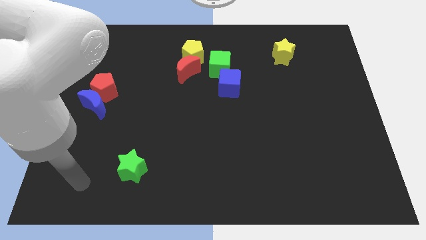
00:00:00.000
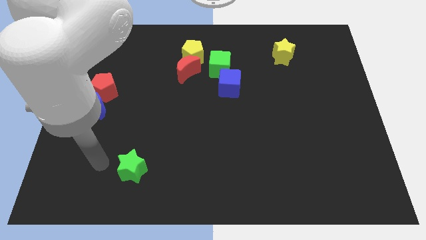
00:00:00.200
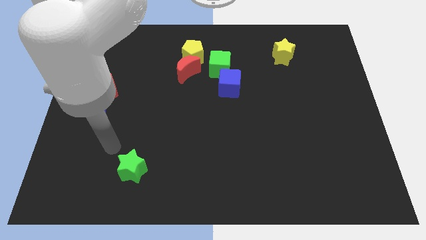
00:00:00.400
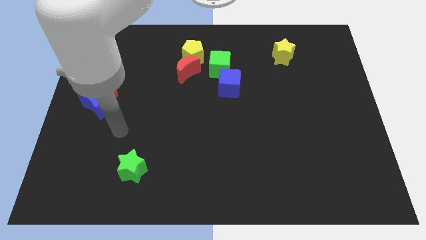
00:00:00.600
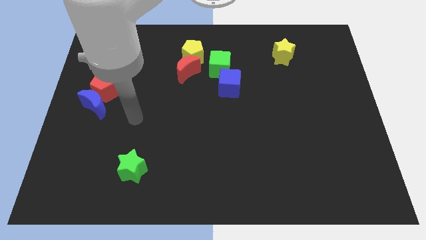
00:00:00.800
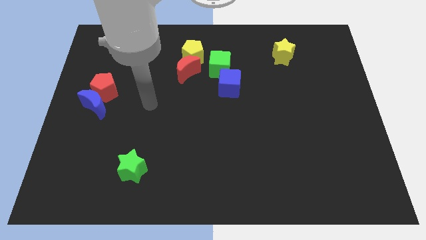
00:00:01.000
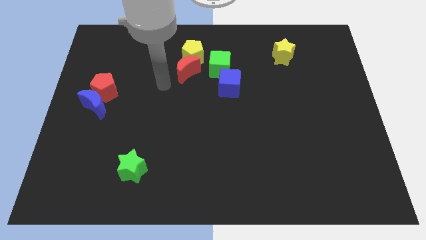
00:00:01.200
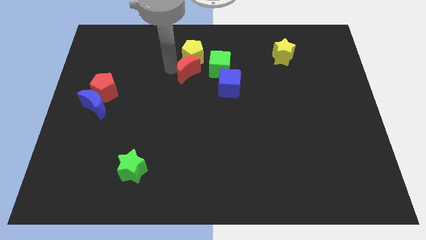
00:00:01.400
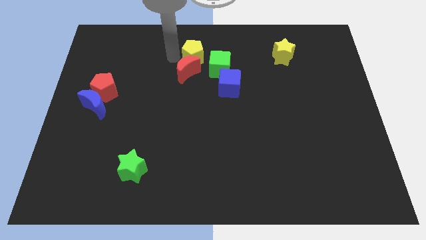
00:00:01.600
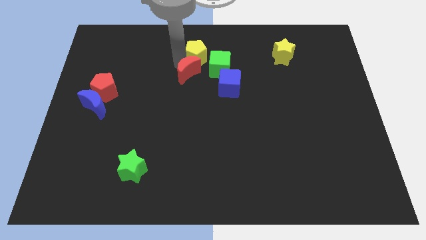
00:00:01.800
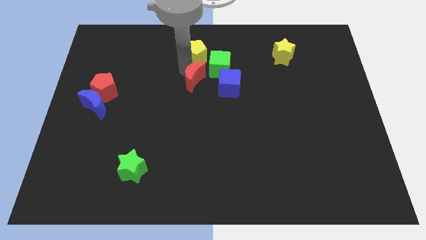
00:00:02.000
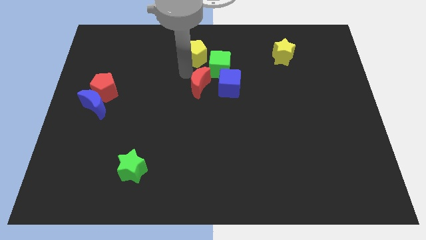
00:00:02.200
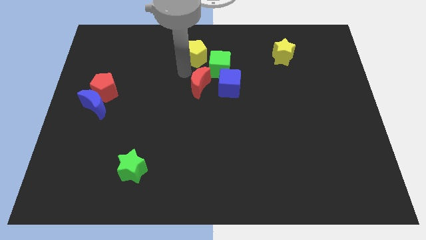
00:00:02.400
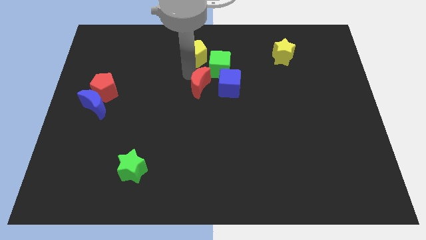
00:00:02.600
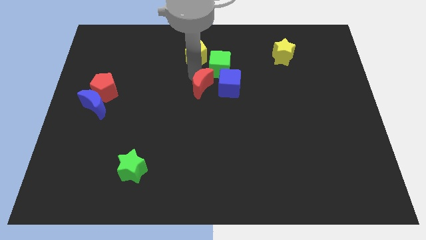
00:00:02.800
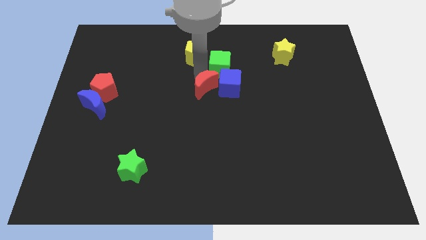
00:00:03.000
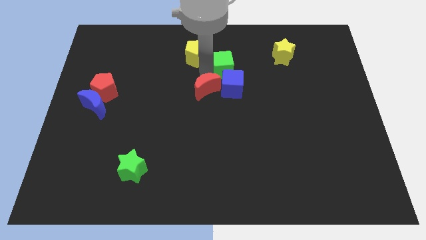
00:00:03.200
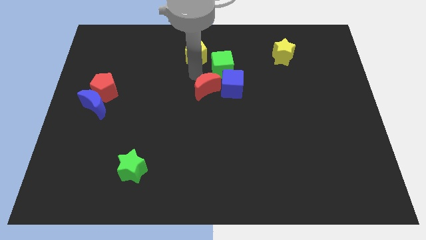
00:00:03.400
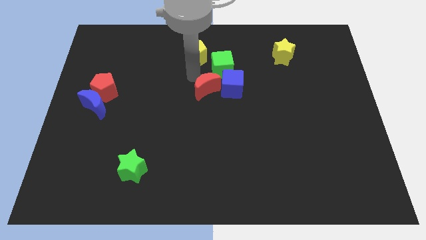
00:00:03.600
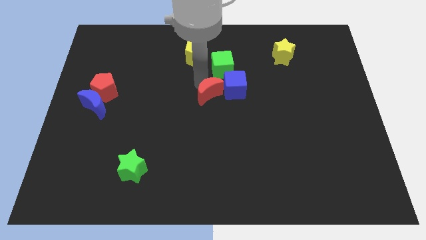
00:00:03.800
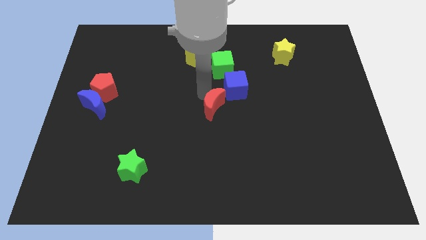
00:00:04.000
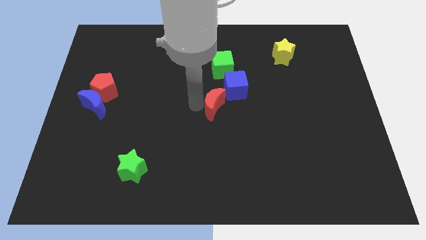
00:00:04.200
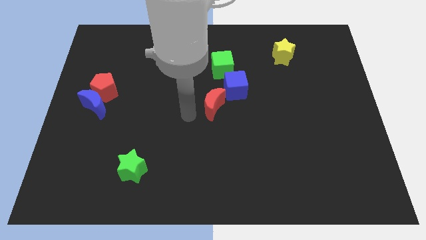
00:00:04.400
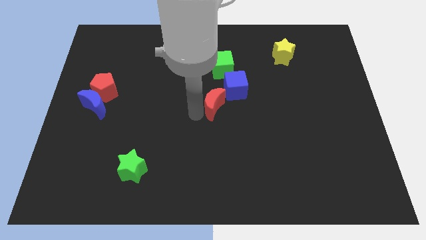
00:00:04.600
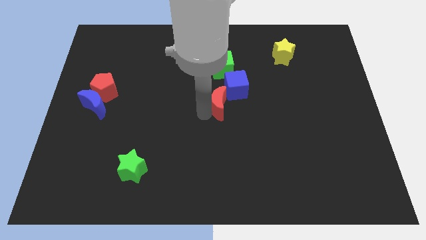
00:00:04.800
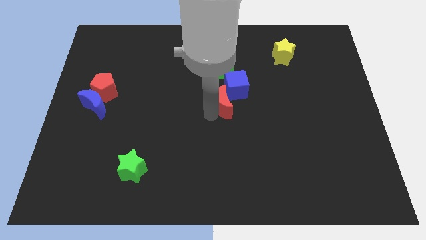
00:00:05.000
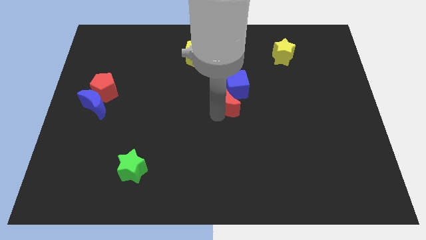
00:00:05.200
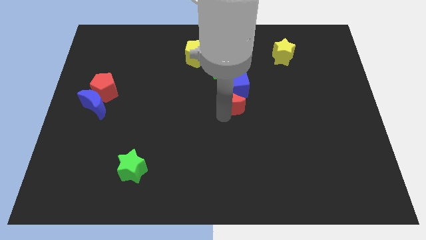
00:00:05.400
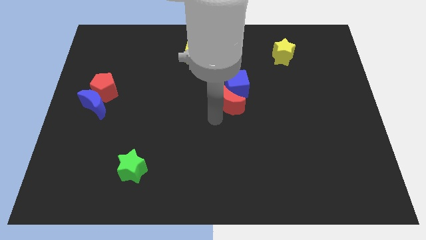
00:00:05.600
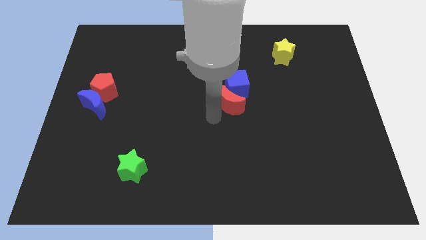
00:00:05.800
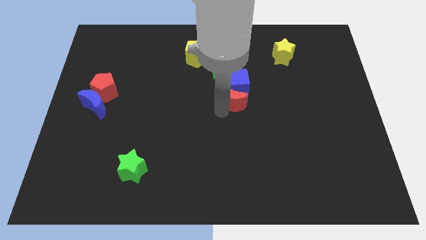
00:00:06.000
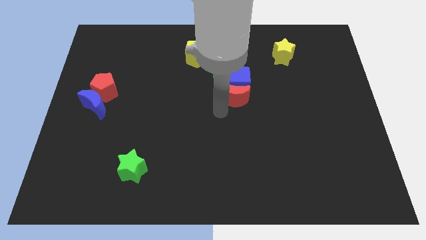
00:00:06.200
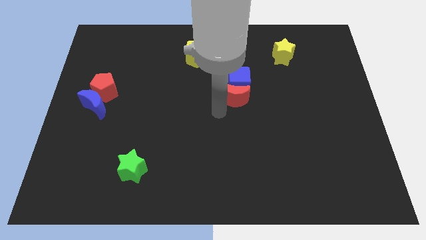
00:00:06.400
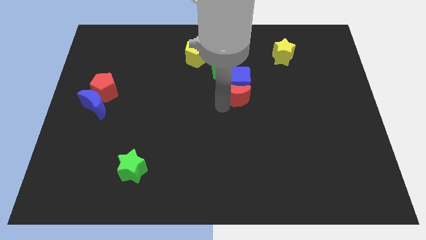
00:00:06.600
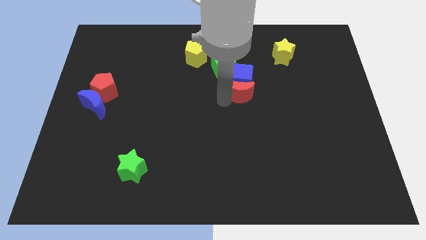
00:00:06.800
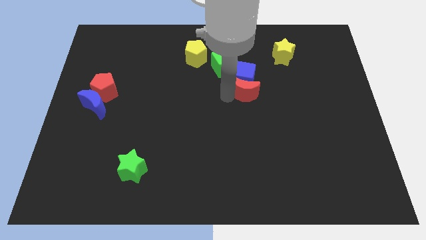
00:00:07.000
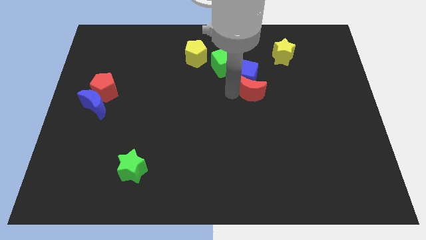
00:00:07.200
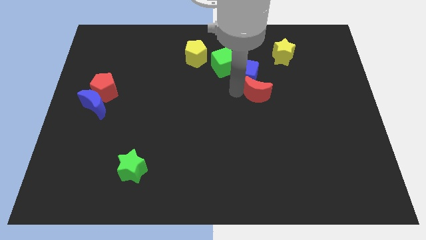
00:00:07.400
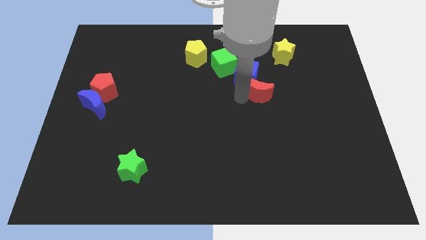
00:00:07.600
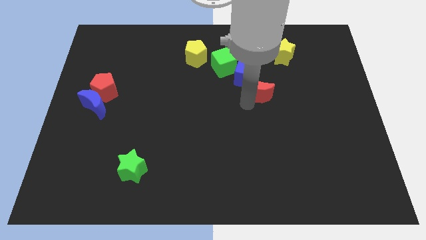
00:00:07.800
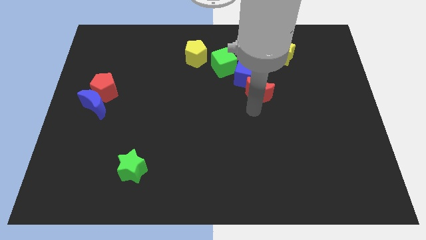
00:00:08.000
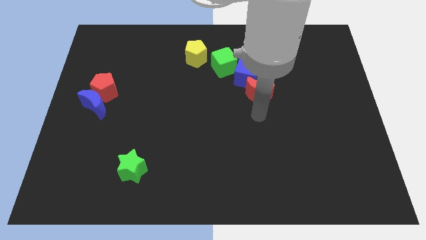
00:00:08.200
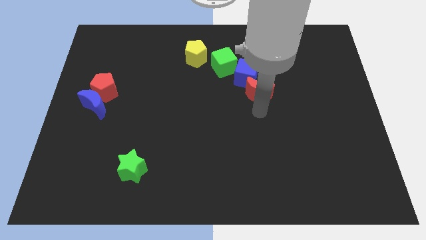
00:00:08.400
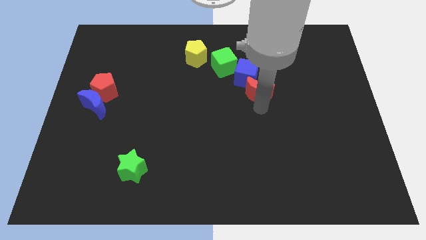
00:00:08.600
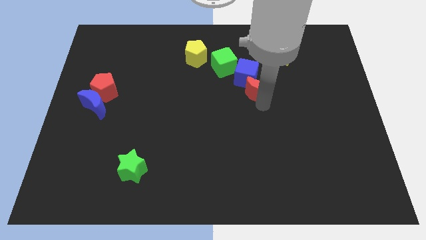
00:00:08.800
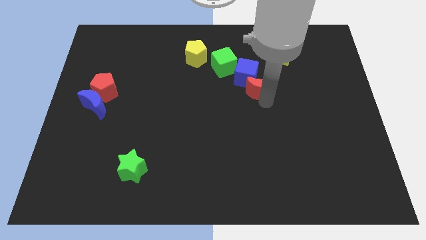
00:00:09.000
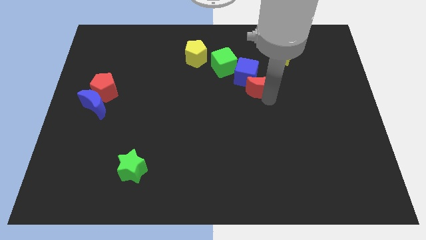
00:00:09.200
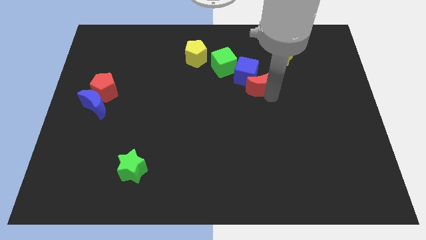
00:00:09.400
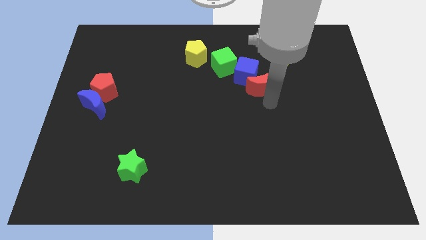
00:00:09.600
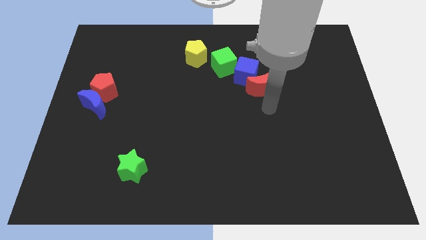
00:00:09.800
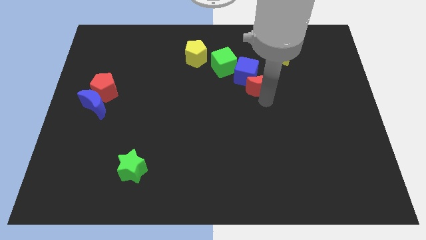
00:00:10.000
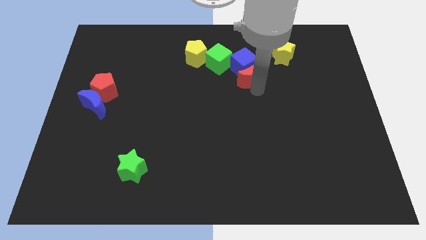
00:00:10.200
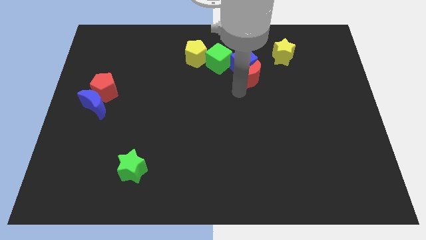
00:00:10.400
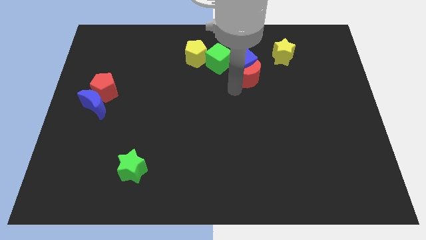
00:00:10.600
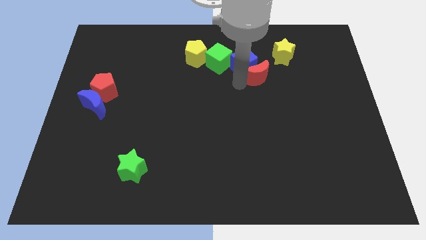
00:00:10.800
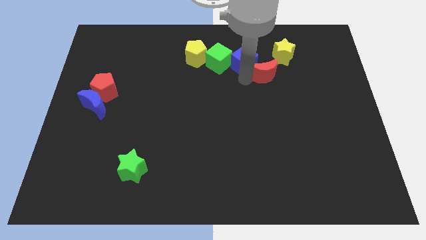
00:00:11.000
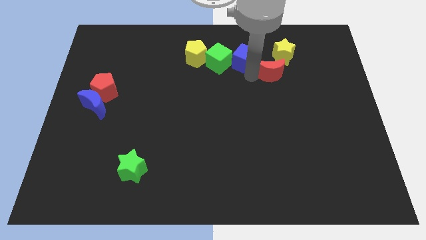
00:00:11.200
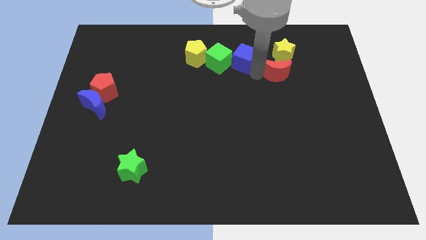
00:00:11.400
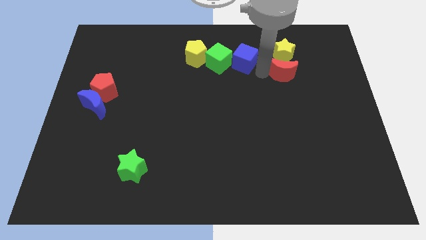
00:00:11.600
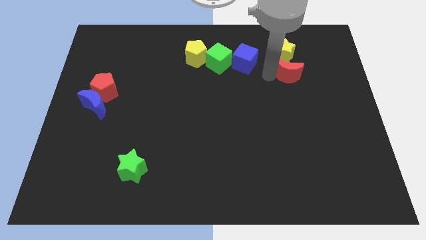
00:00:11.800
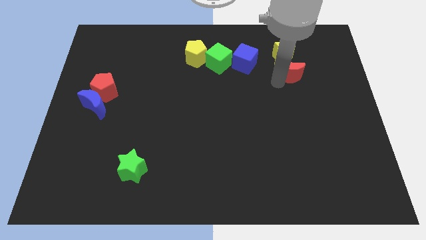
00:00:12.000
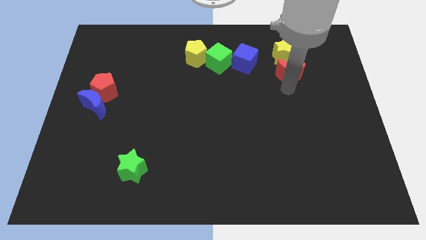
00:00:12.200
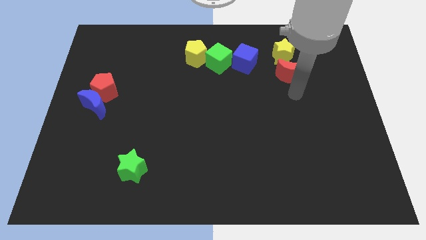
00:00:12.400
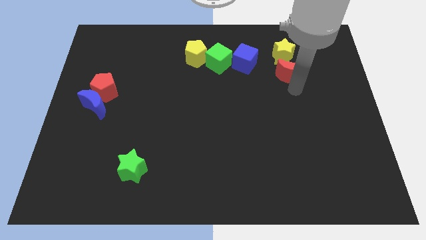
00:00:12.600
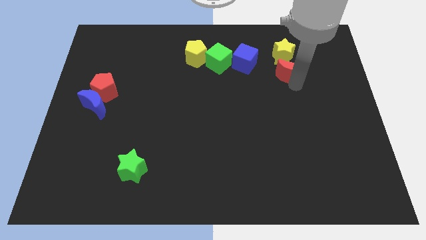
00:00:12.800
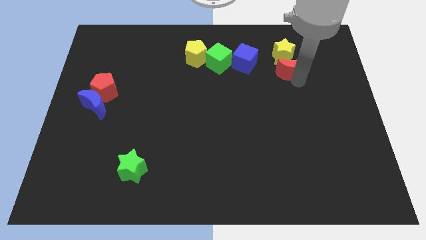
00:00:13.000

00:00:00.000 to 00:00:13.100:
slide the red moon towards the yellow star

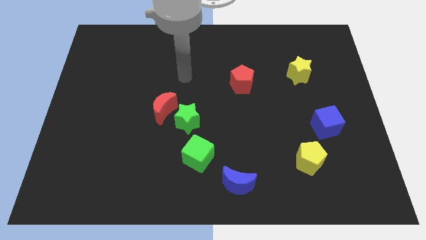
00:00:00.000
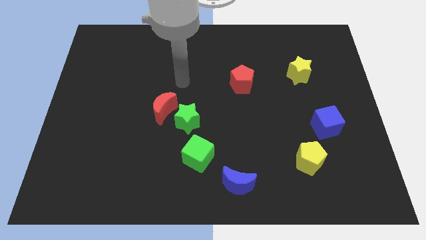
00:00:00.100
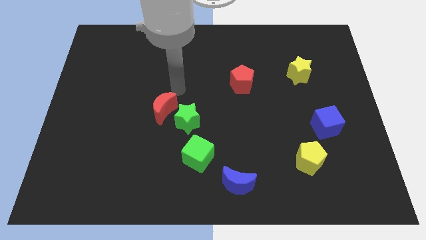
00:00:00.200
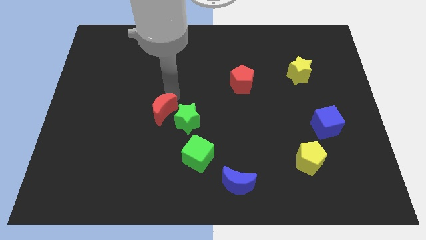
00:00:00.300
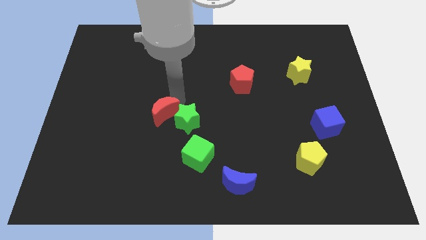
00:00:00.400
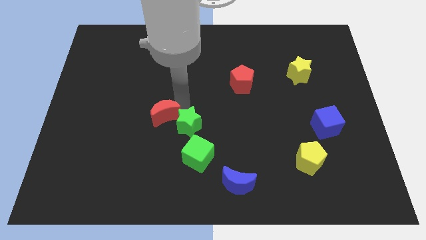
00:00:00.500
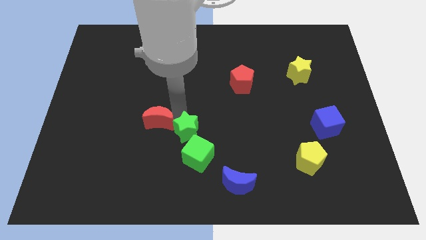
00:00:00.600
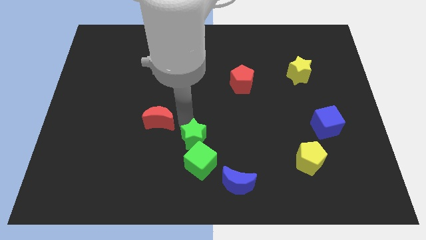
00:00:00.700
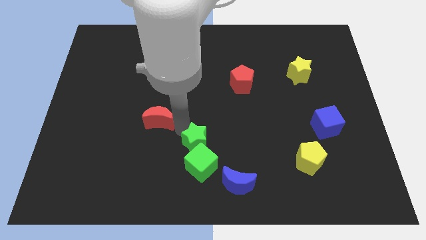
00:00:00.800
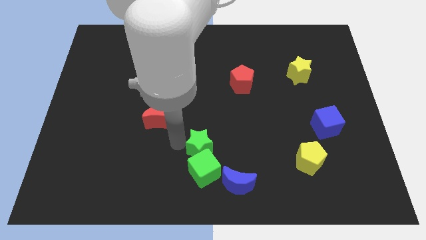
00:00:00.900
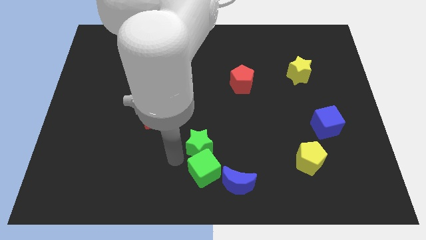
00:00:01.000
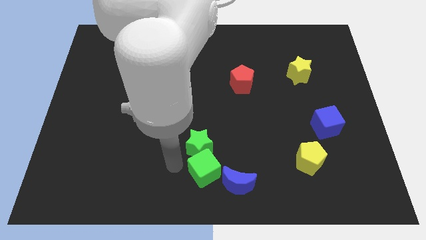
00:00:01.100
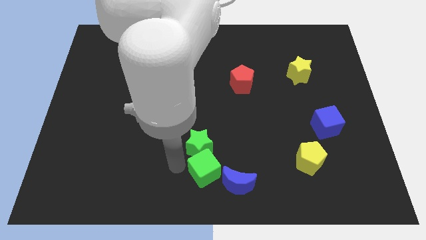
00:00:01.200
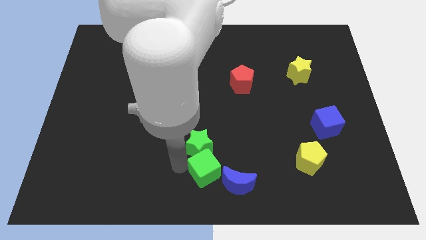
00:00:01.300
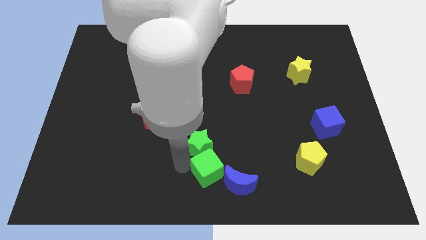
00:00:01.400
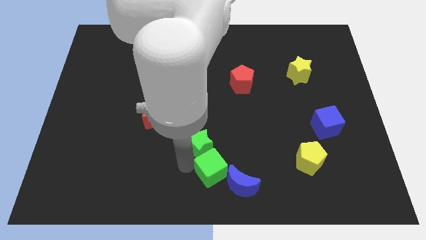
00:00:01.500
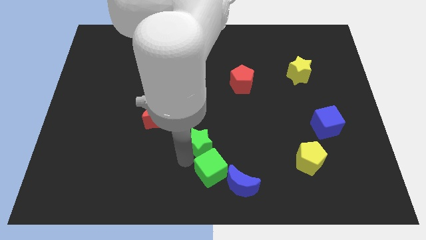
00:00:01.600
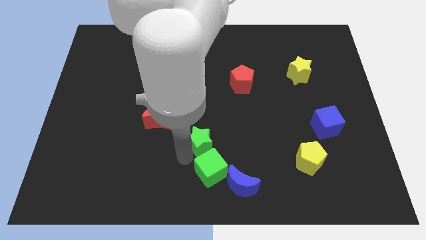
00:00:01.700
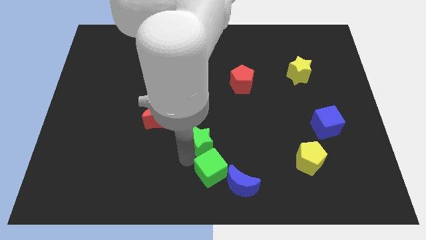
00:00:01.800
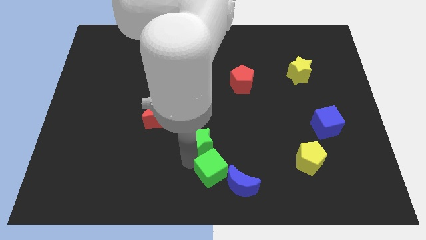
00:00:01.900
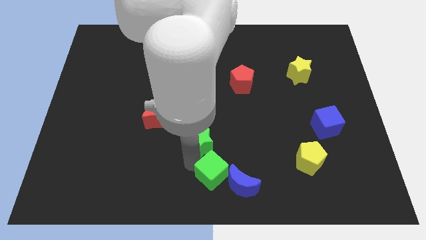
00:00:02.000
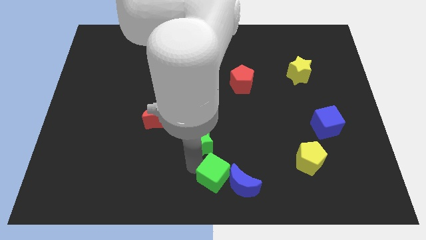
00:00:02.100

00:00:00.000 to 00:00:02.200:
push the green cube to the blue moon
